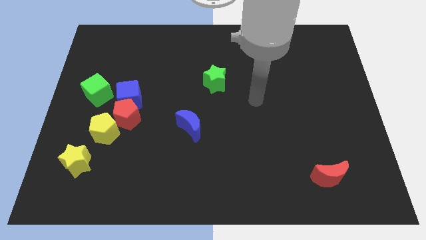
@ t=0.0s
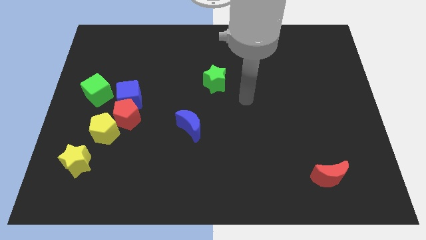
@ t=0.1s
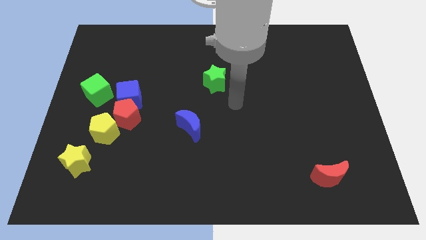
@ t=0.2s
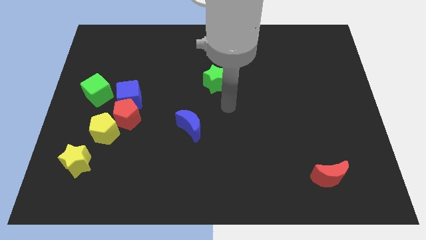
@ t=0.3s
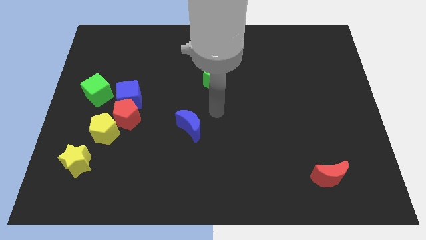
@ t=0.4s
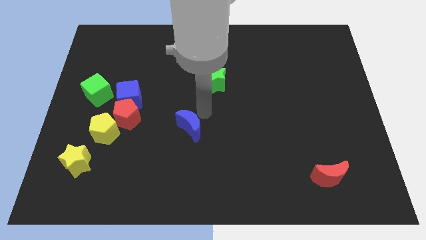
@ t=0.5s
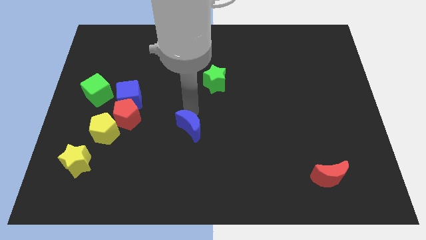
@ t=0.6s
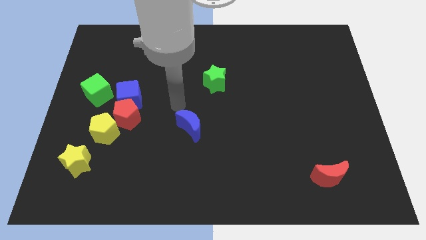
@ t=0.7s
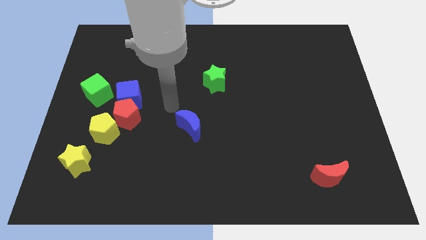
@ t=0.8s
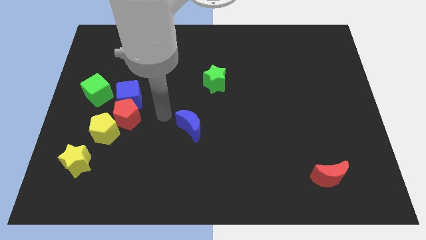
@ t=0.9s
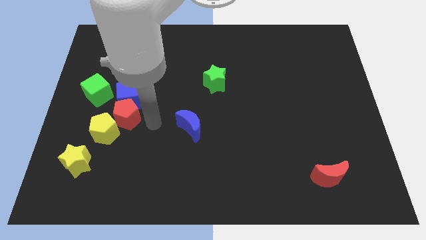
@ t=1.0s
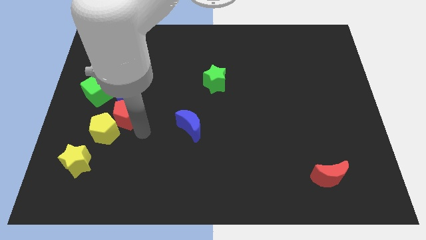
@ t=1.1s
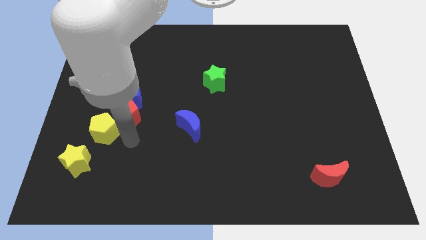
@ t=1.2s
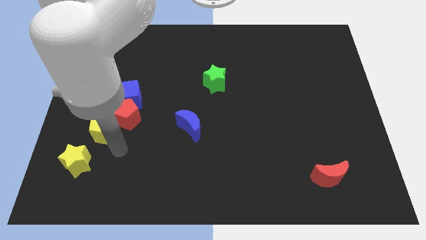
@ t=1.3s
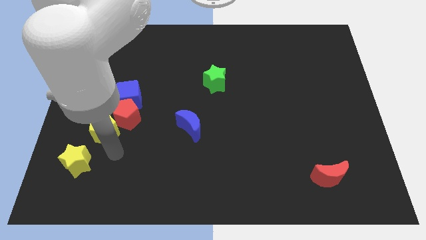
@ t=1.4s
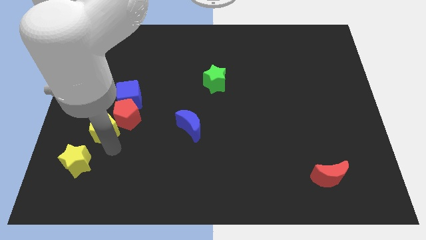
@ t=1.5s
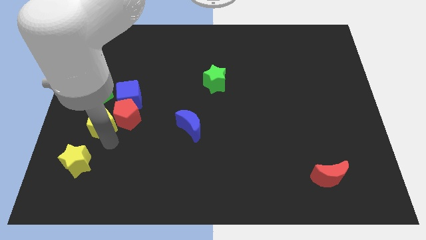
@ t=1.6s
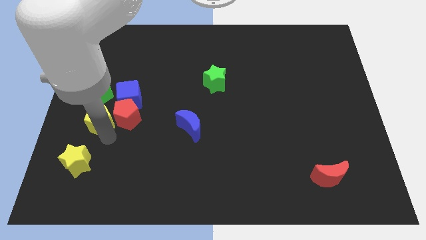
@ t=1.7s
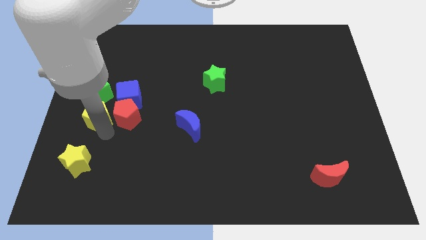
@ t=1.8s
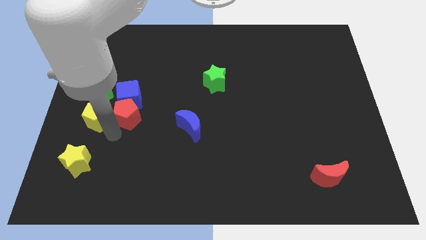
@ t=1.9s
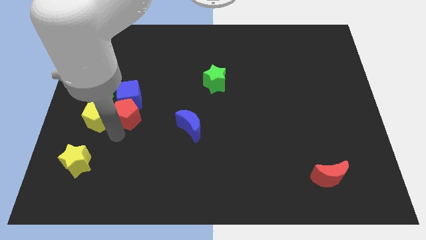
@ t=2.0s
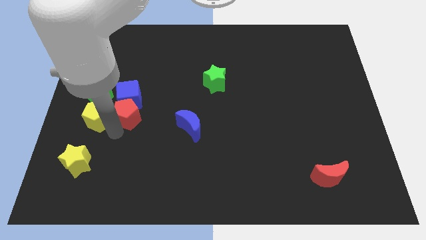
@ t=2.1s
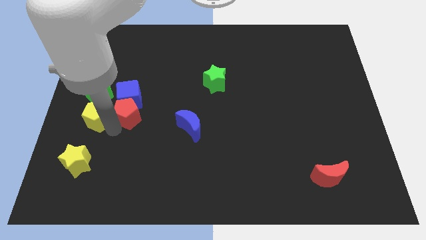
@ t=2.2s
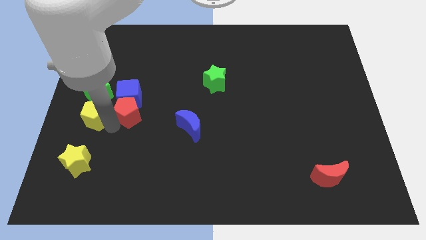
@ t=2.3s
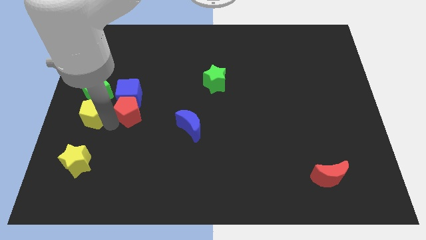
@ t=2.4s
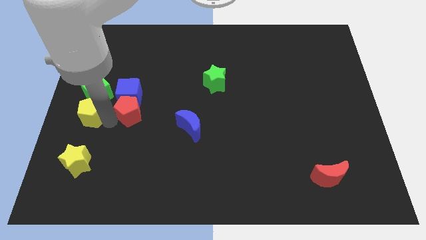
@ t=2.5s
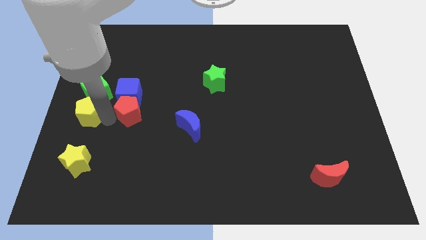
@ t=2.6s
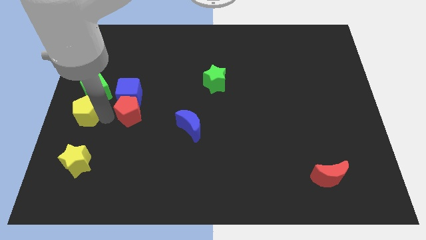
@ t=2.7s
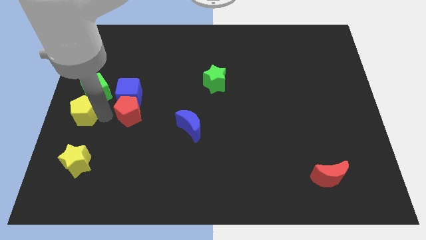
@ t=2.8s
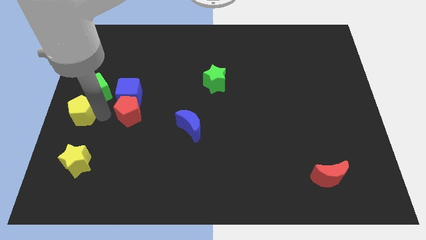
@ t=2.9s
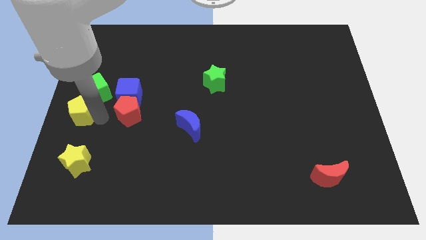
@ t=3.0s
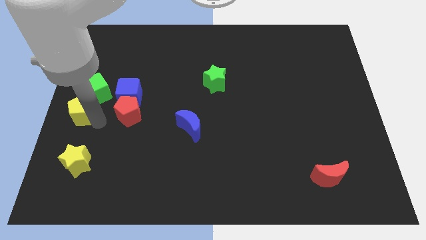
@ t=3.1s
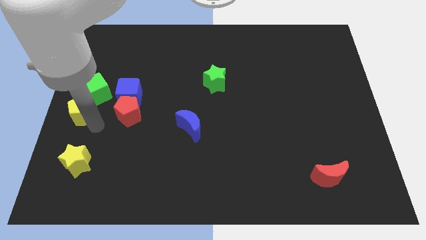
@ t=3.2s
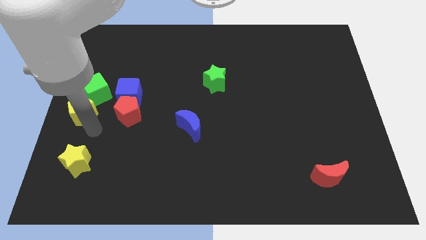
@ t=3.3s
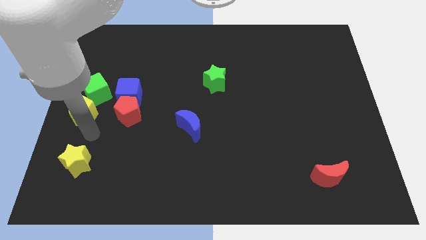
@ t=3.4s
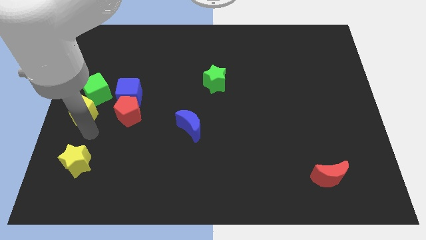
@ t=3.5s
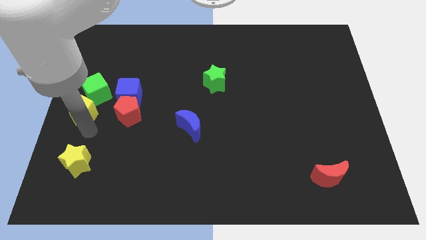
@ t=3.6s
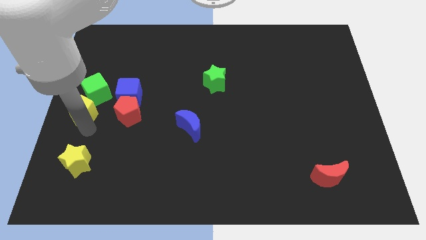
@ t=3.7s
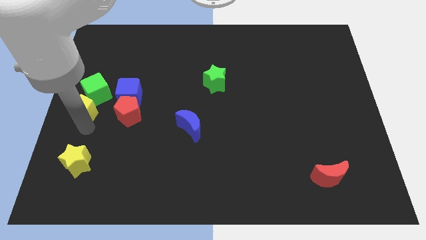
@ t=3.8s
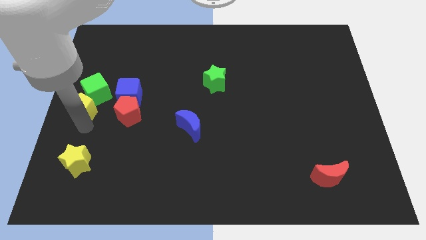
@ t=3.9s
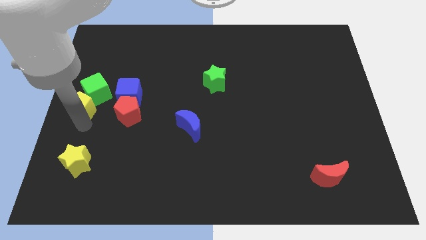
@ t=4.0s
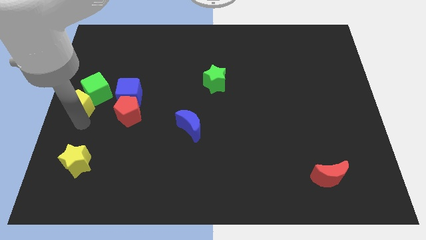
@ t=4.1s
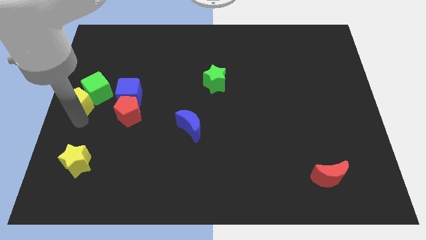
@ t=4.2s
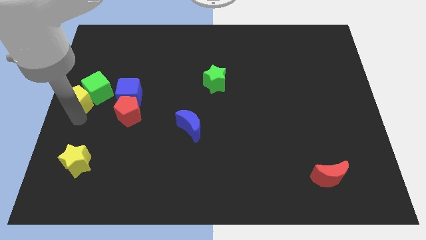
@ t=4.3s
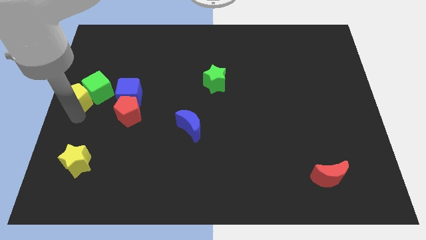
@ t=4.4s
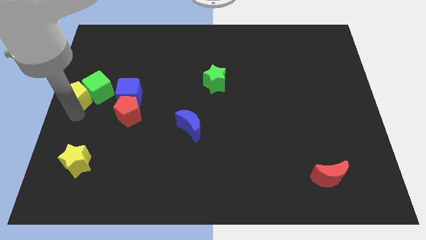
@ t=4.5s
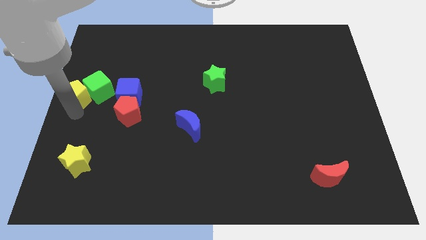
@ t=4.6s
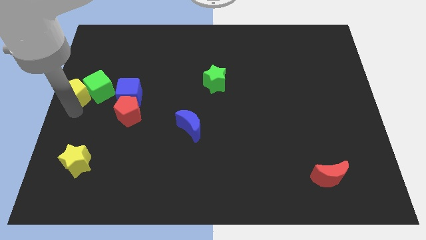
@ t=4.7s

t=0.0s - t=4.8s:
slide the yellow pentagon a little bit upwards

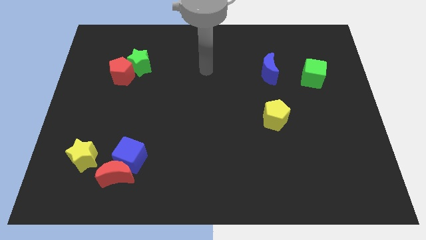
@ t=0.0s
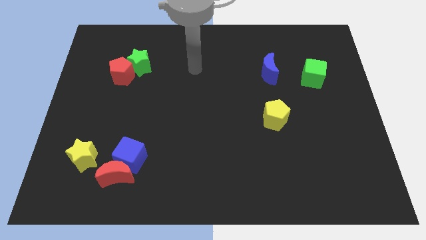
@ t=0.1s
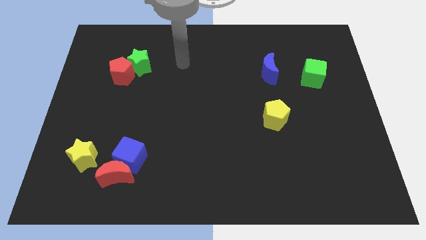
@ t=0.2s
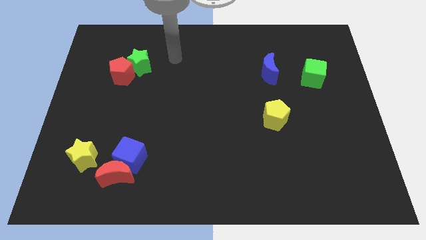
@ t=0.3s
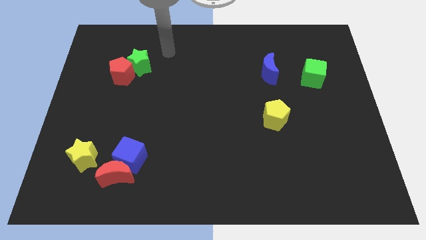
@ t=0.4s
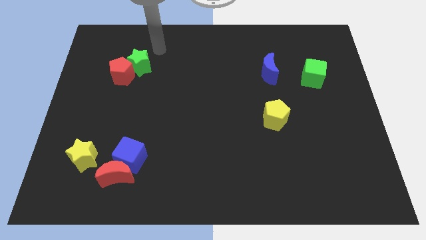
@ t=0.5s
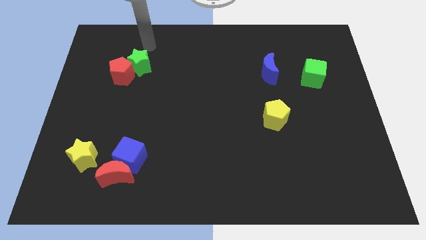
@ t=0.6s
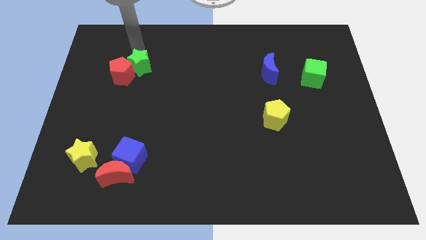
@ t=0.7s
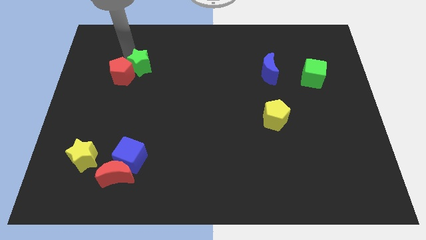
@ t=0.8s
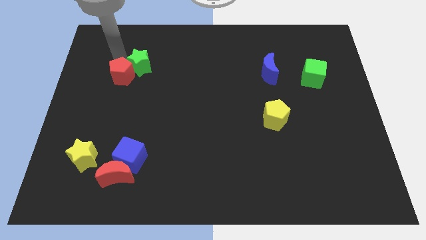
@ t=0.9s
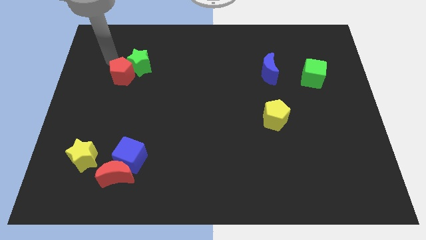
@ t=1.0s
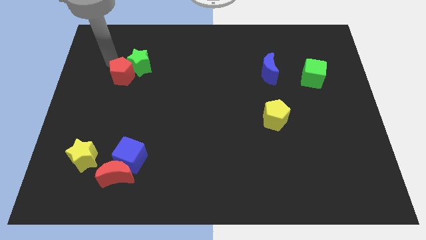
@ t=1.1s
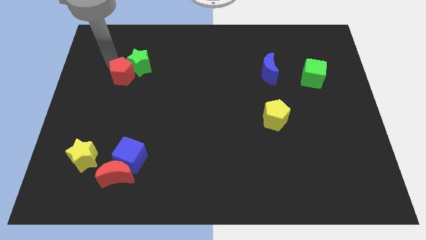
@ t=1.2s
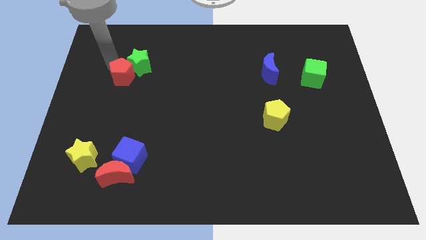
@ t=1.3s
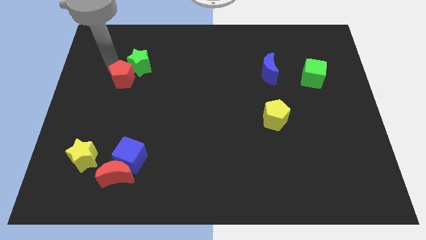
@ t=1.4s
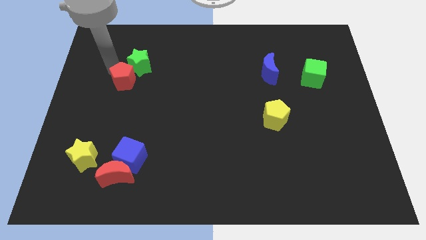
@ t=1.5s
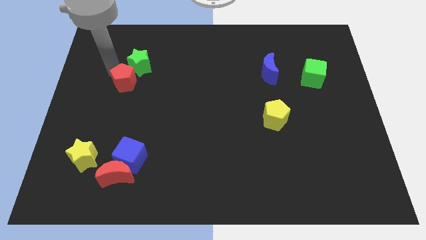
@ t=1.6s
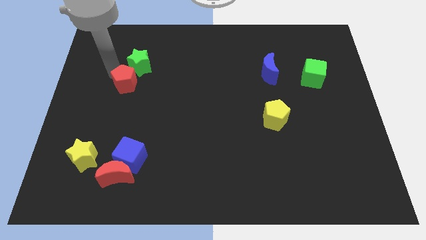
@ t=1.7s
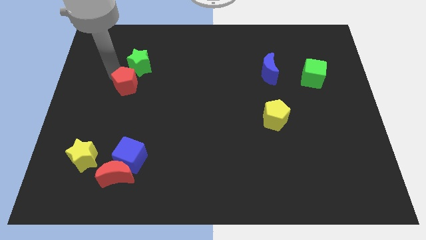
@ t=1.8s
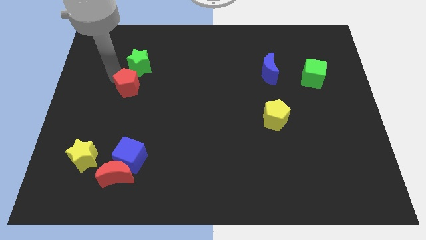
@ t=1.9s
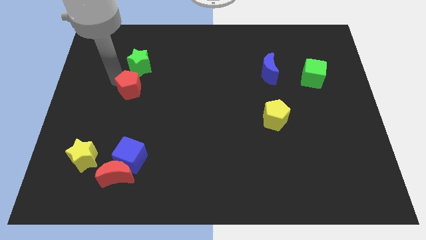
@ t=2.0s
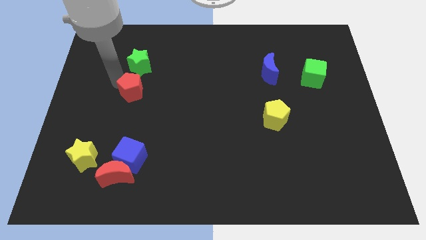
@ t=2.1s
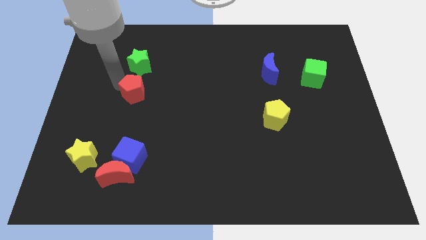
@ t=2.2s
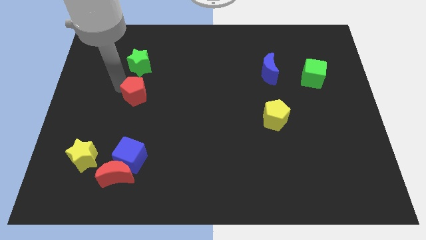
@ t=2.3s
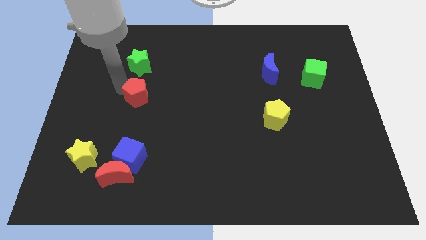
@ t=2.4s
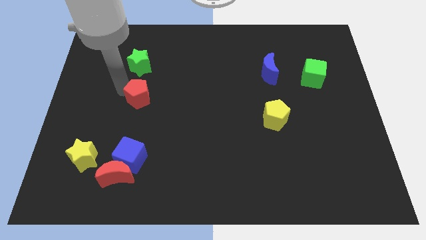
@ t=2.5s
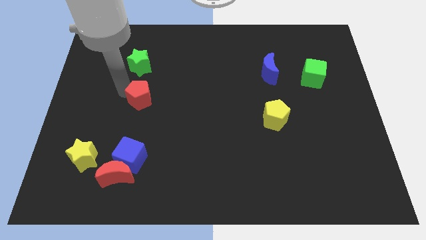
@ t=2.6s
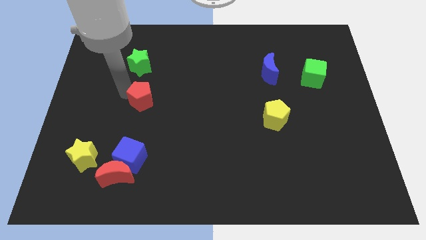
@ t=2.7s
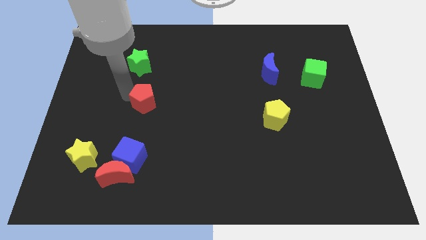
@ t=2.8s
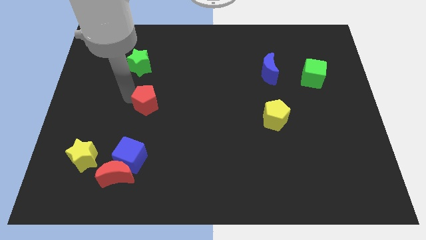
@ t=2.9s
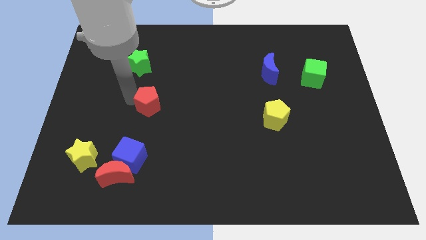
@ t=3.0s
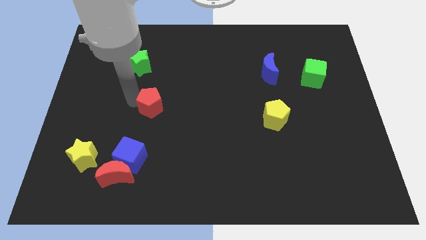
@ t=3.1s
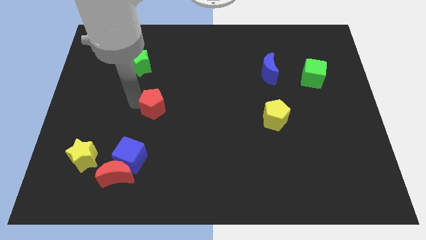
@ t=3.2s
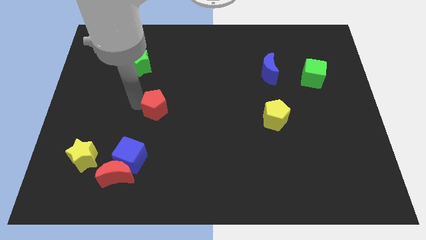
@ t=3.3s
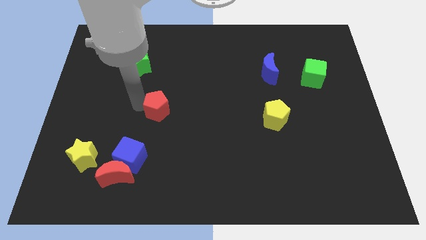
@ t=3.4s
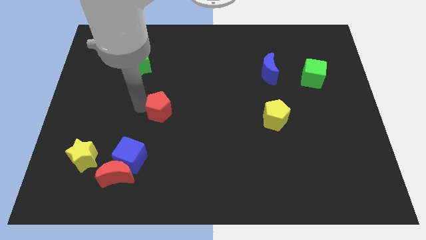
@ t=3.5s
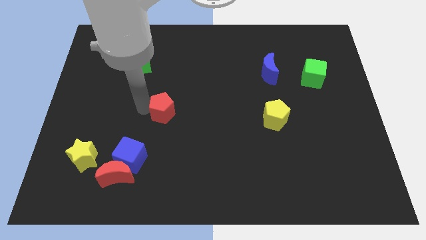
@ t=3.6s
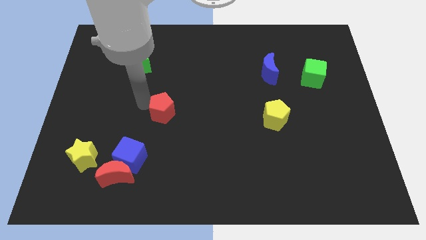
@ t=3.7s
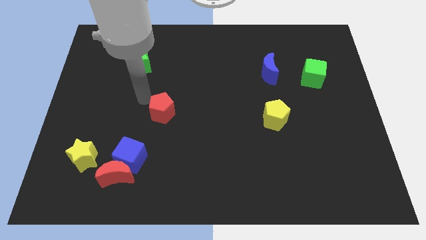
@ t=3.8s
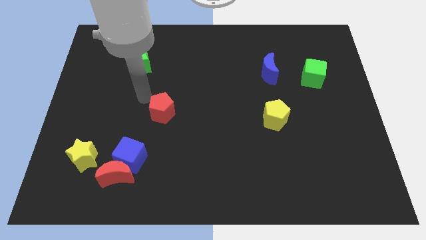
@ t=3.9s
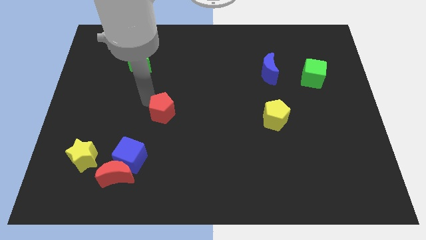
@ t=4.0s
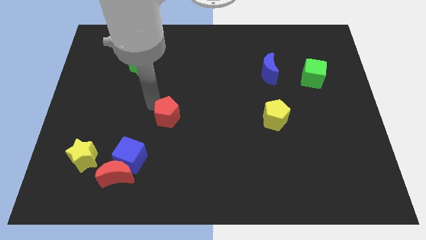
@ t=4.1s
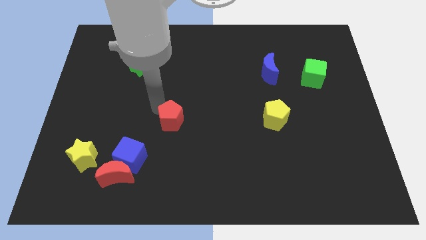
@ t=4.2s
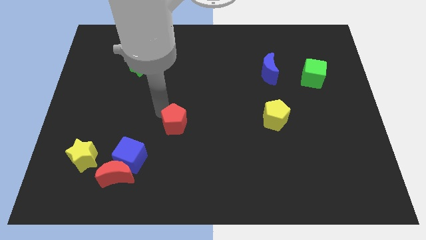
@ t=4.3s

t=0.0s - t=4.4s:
move the red pentagon down and right
